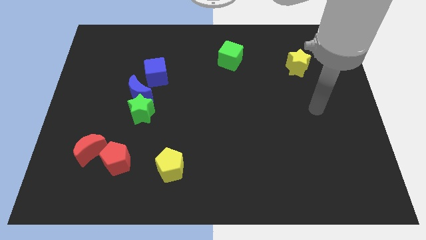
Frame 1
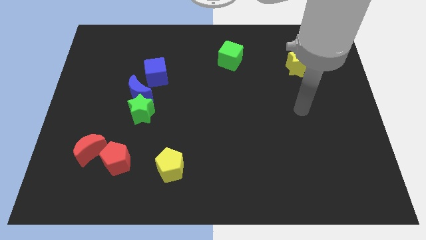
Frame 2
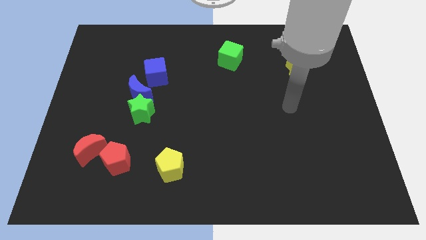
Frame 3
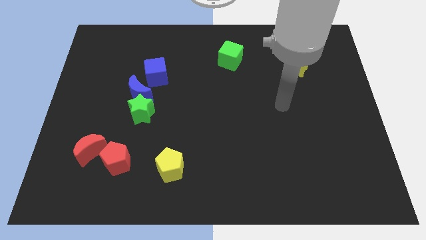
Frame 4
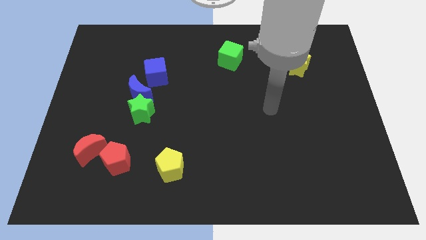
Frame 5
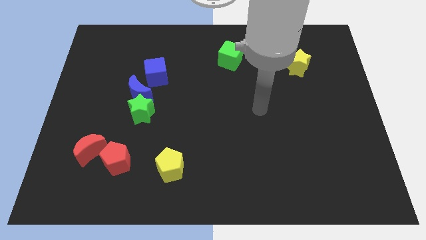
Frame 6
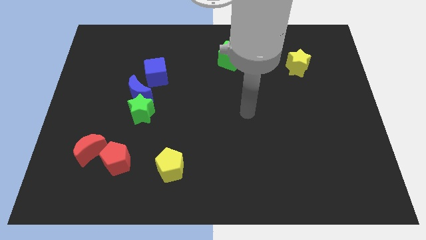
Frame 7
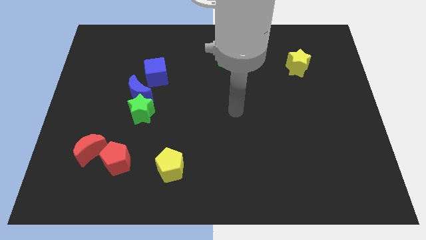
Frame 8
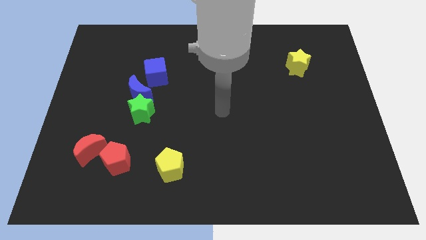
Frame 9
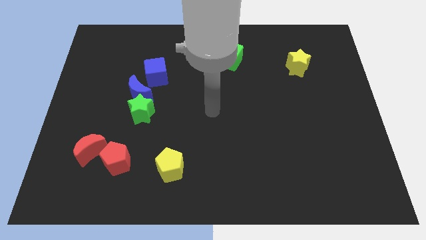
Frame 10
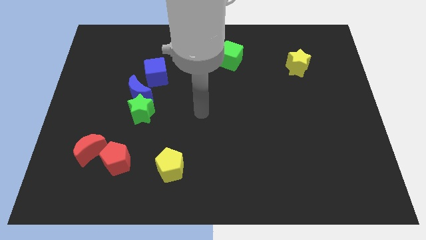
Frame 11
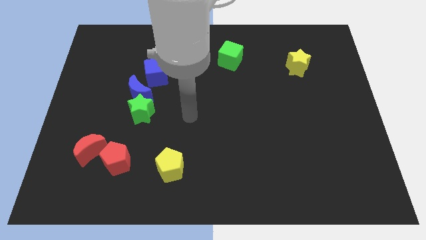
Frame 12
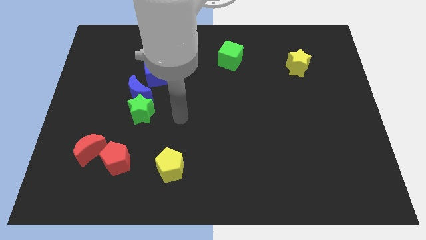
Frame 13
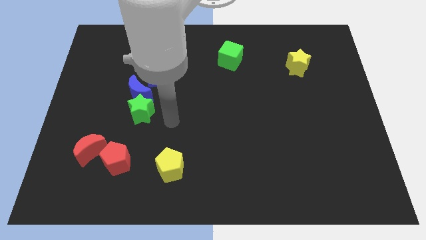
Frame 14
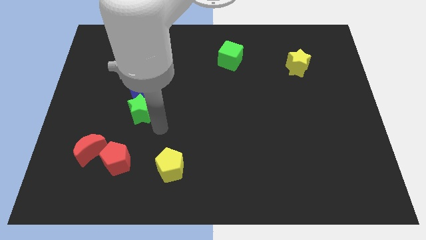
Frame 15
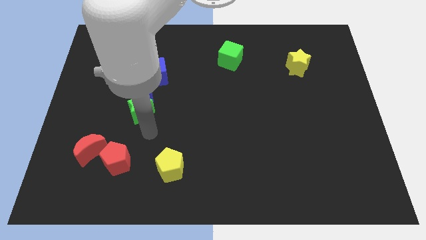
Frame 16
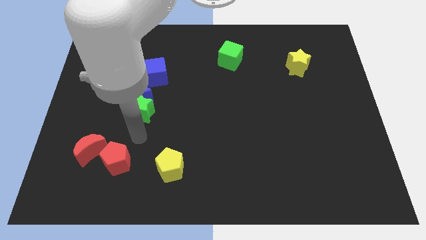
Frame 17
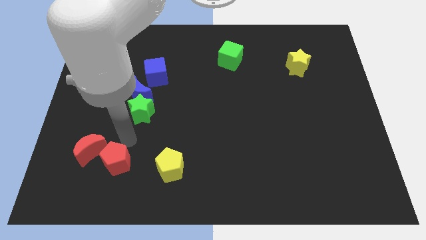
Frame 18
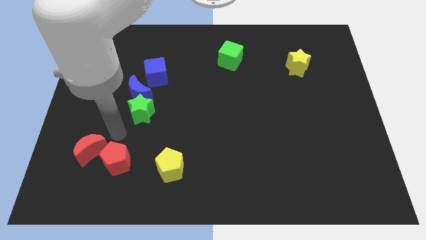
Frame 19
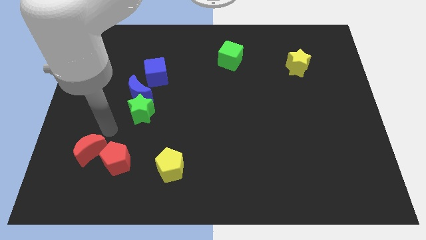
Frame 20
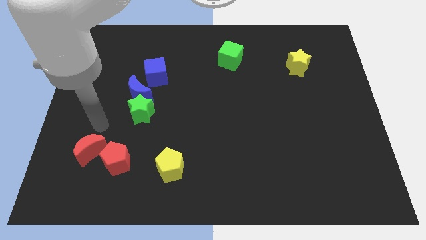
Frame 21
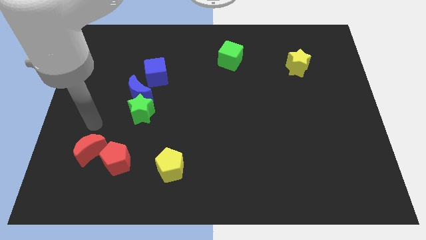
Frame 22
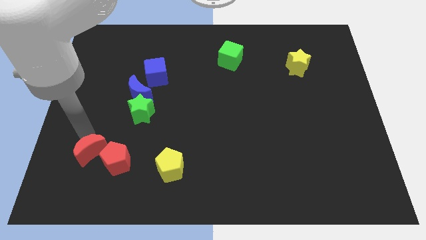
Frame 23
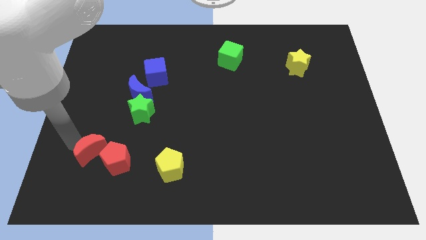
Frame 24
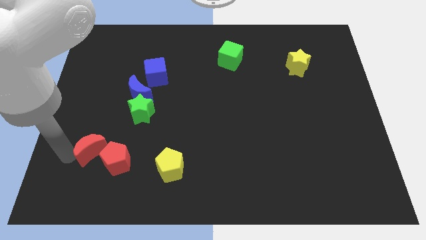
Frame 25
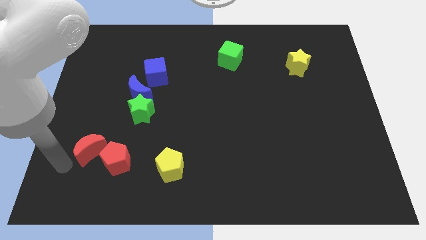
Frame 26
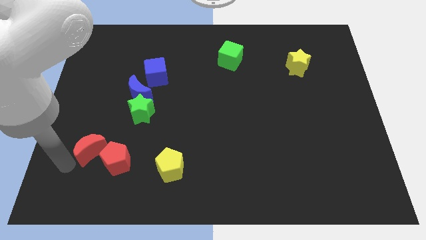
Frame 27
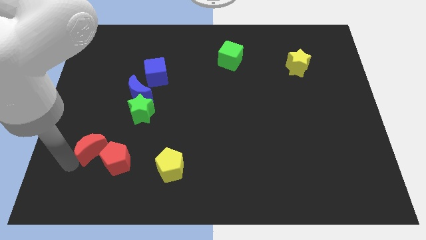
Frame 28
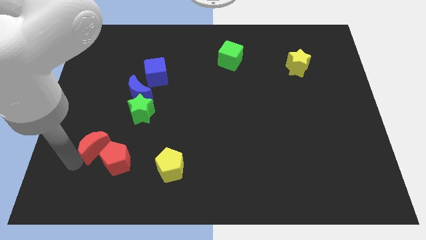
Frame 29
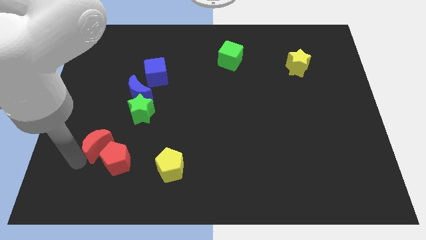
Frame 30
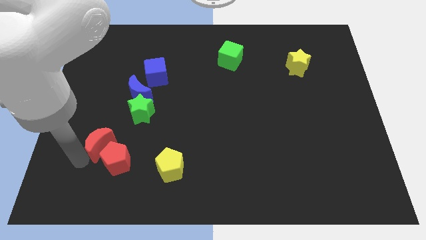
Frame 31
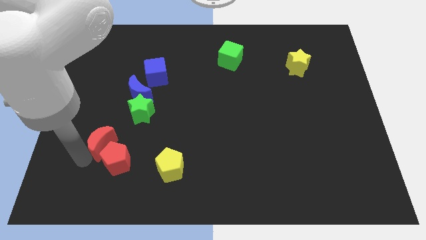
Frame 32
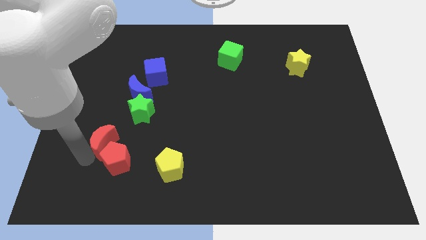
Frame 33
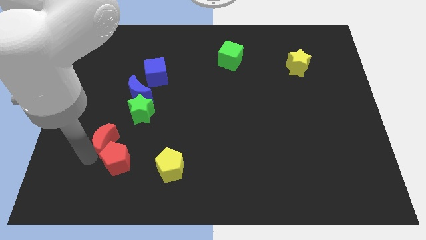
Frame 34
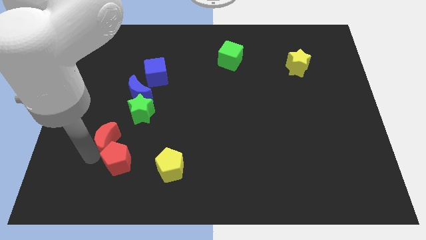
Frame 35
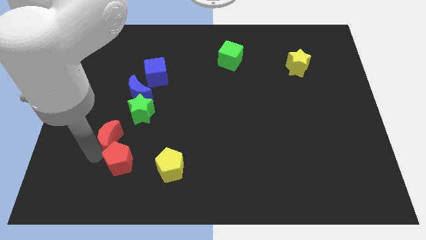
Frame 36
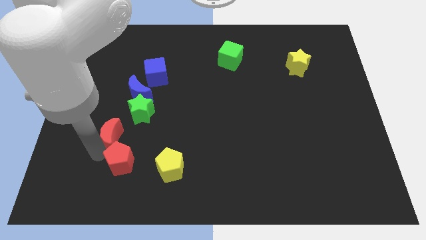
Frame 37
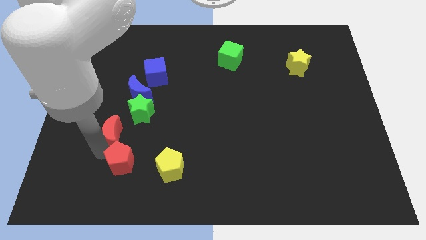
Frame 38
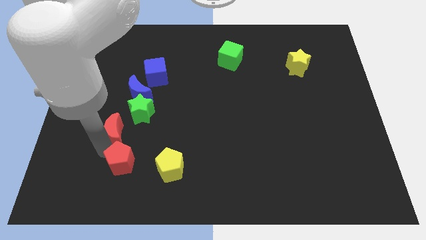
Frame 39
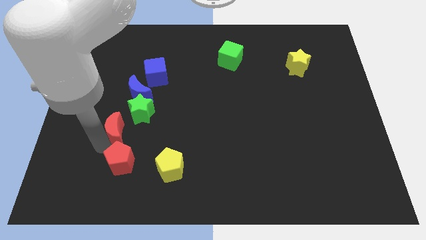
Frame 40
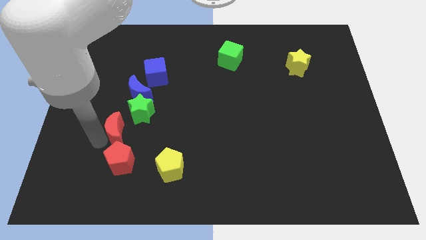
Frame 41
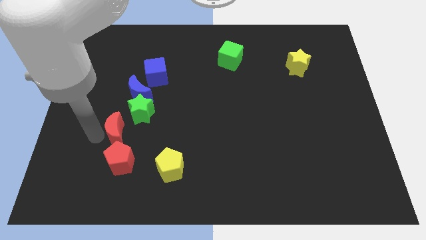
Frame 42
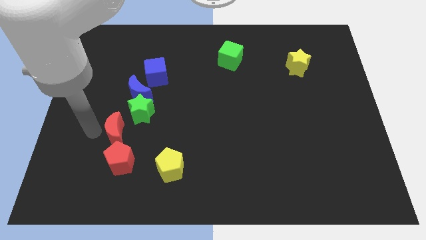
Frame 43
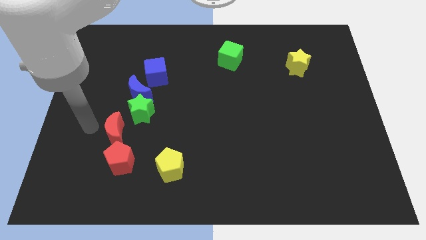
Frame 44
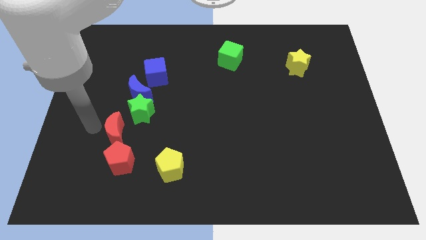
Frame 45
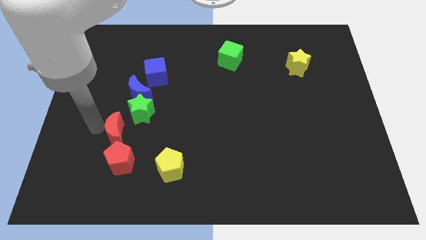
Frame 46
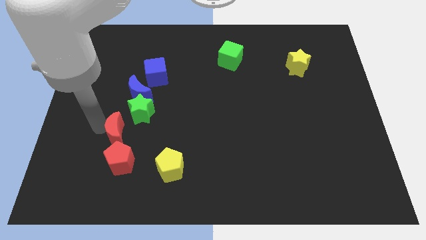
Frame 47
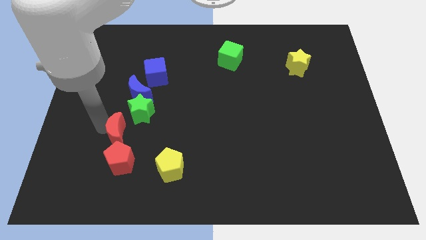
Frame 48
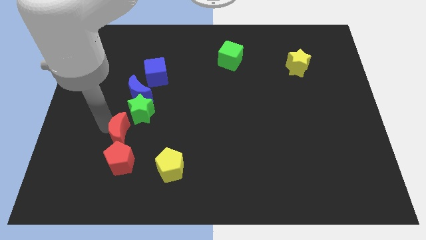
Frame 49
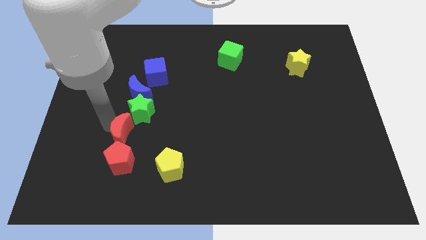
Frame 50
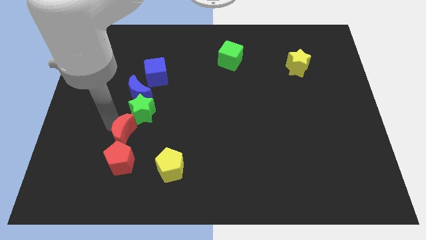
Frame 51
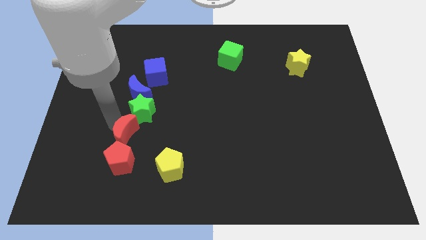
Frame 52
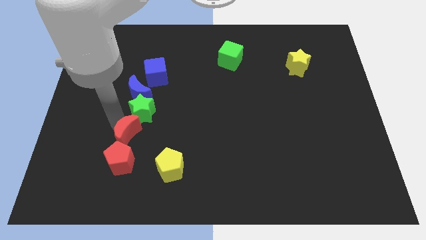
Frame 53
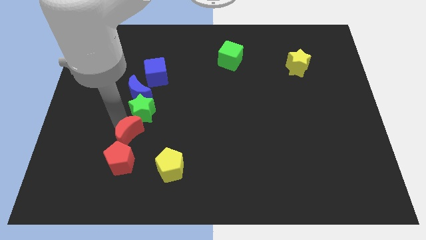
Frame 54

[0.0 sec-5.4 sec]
slide the red moon to the right a little bit

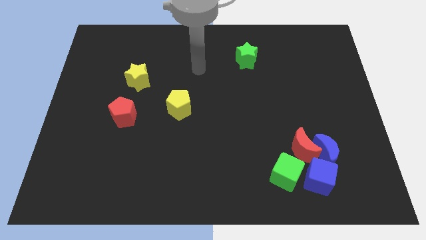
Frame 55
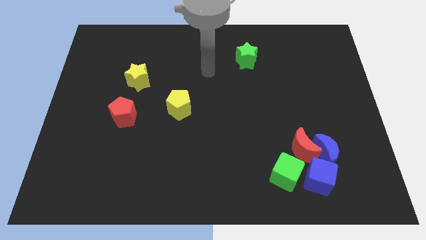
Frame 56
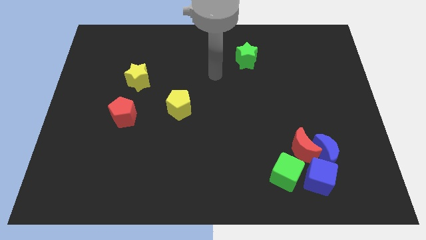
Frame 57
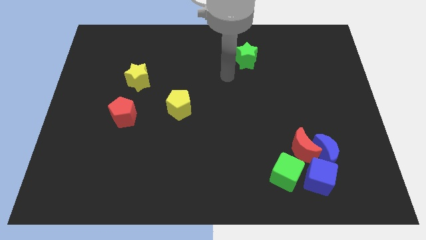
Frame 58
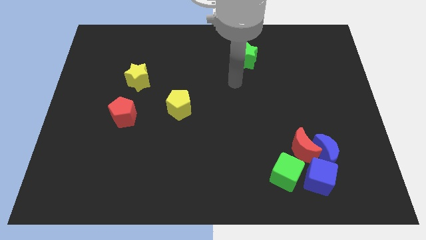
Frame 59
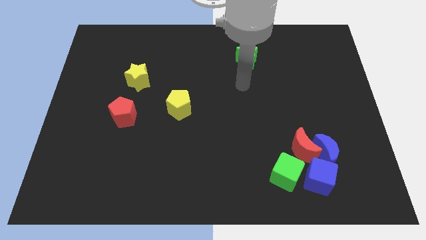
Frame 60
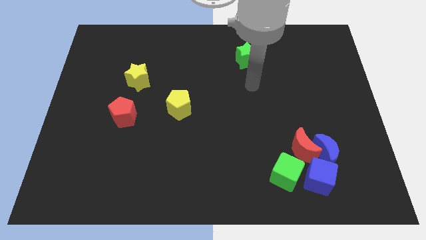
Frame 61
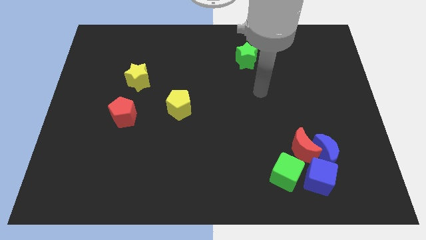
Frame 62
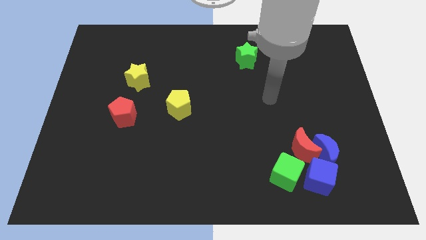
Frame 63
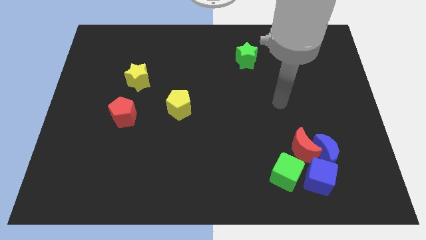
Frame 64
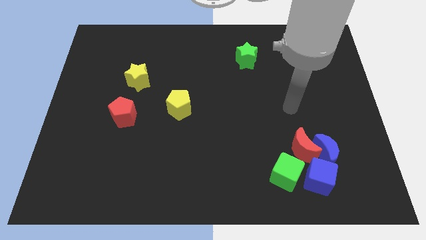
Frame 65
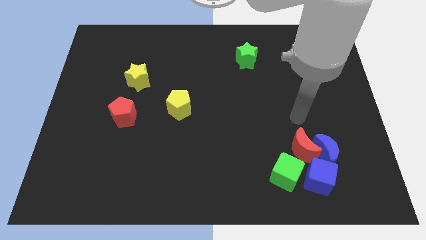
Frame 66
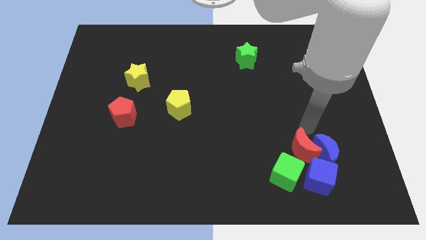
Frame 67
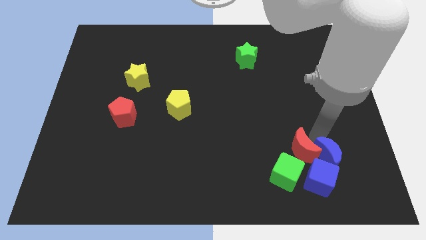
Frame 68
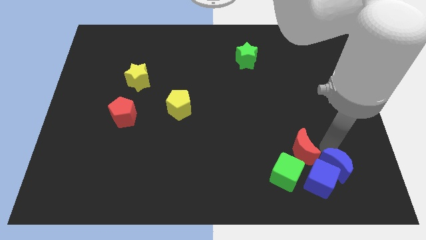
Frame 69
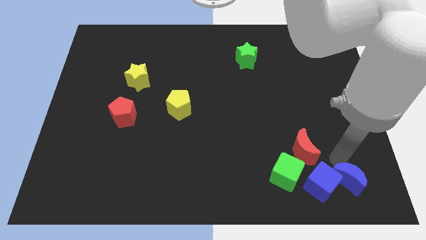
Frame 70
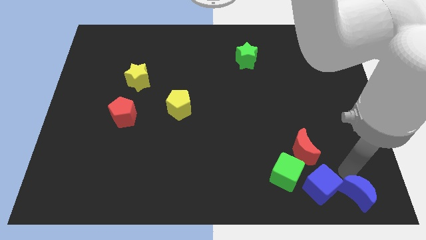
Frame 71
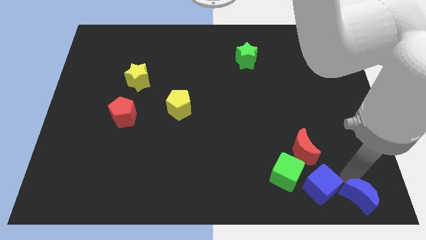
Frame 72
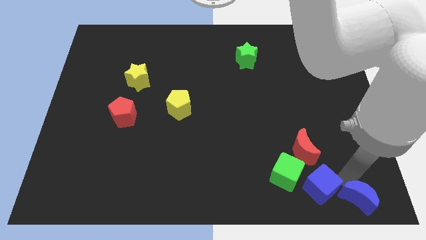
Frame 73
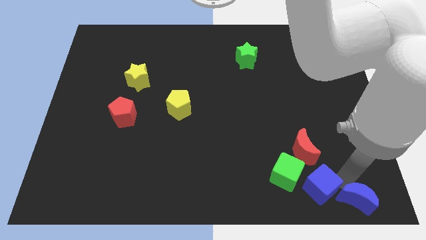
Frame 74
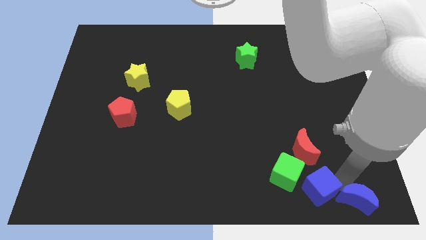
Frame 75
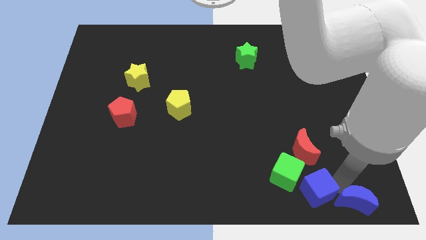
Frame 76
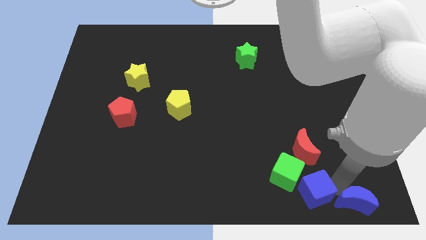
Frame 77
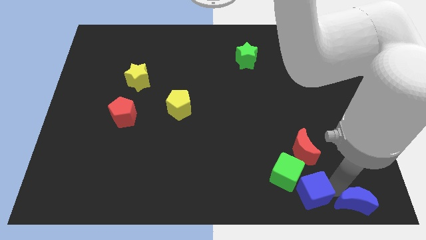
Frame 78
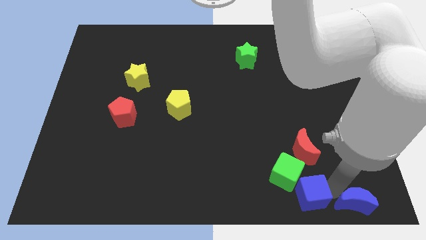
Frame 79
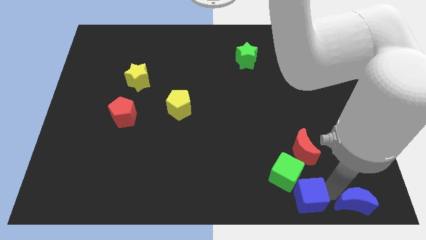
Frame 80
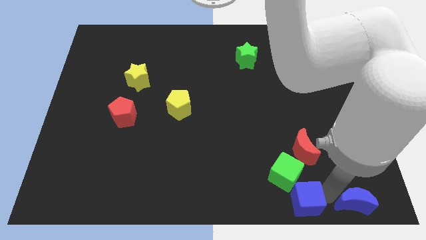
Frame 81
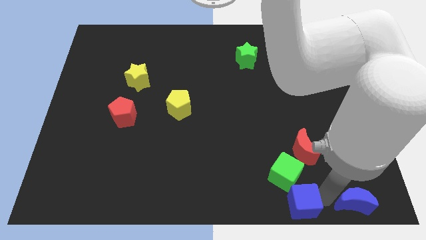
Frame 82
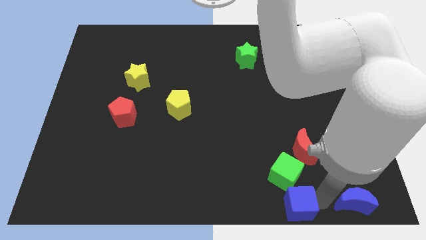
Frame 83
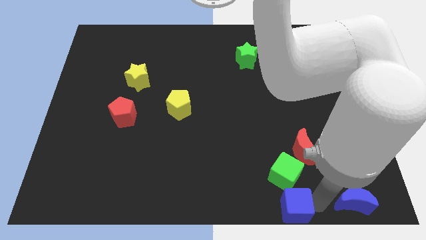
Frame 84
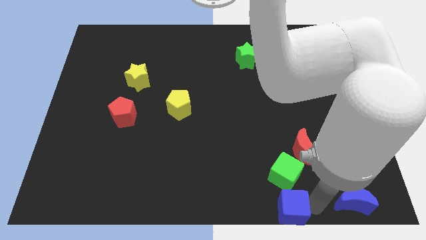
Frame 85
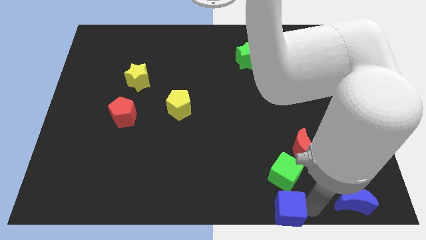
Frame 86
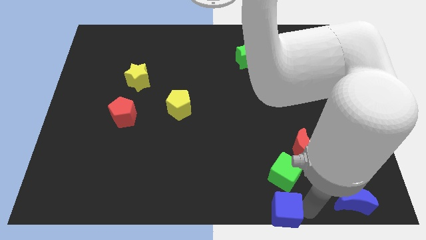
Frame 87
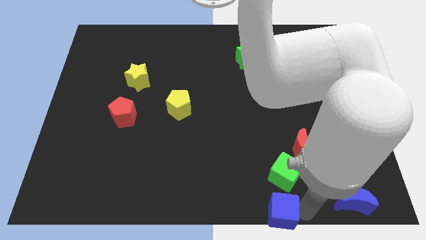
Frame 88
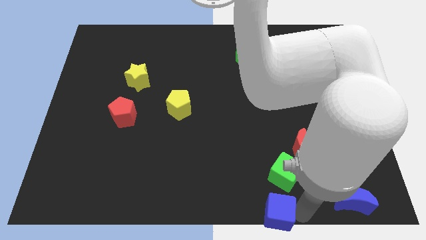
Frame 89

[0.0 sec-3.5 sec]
push the blue cube left a little bit
